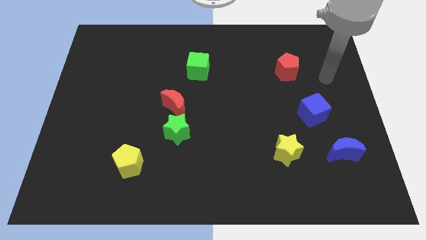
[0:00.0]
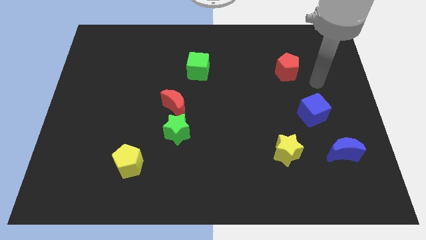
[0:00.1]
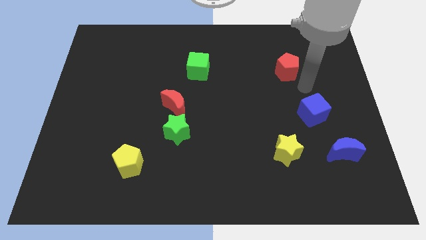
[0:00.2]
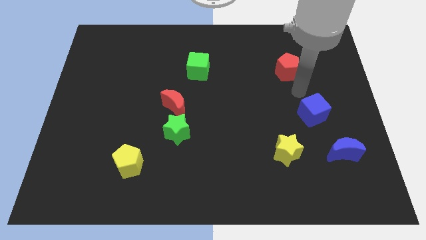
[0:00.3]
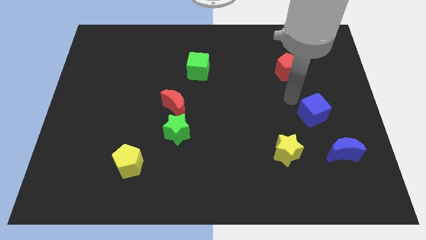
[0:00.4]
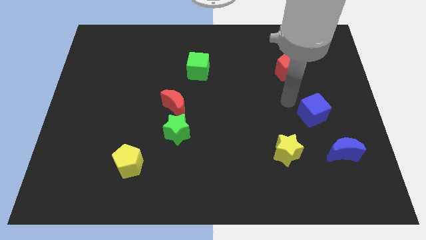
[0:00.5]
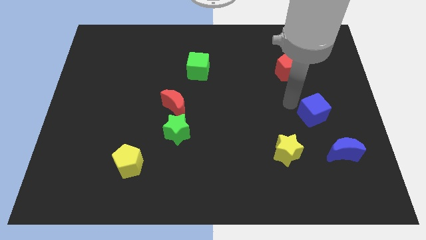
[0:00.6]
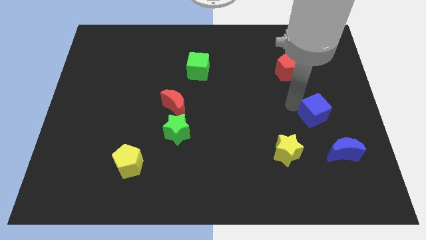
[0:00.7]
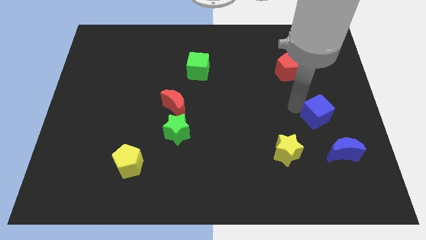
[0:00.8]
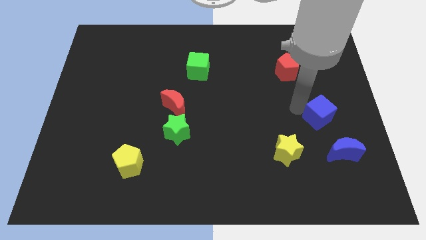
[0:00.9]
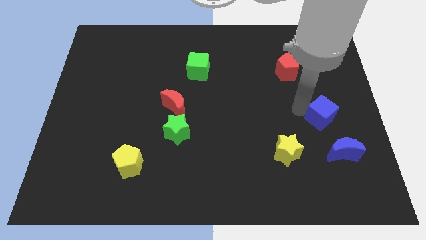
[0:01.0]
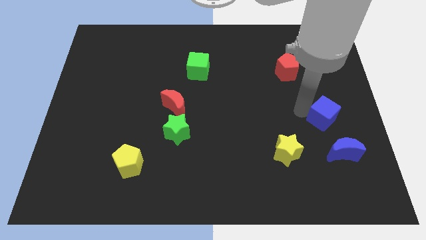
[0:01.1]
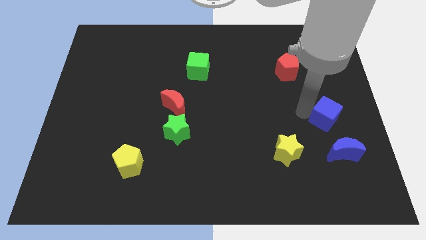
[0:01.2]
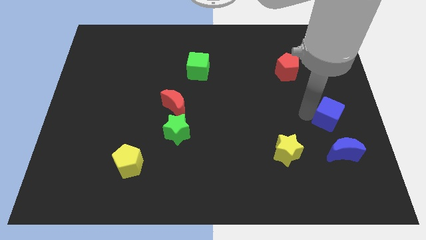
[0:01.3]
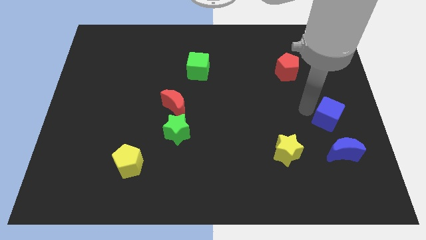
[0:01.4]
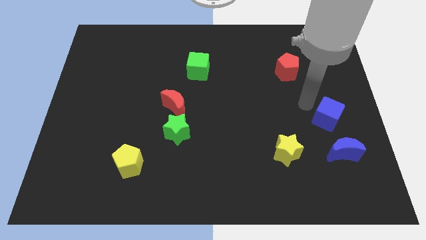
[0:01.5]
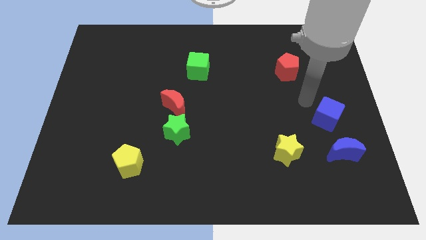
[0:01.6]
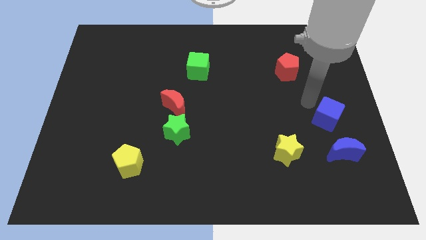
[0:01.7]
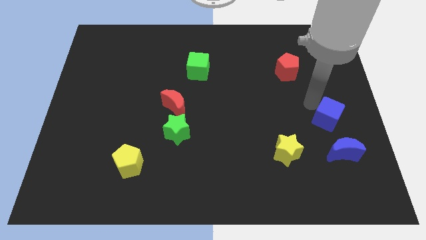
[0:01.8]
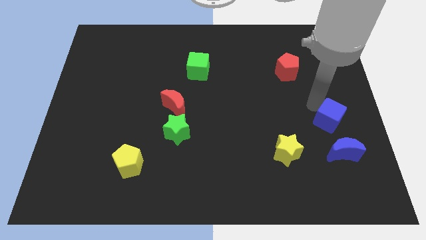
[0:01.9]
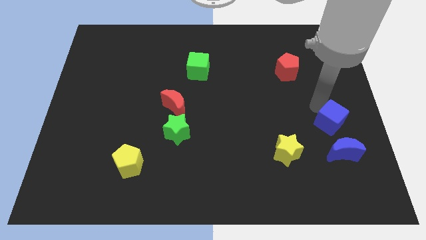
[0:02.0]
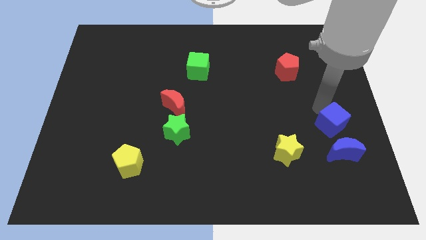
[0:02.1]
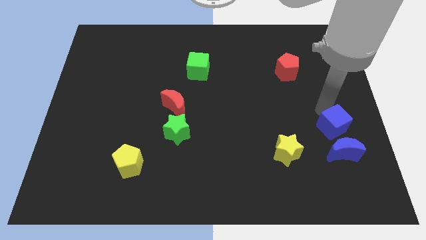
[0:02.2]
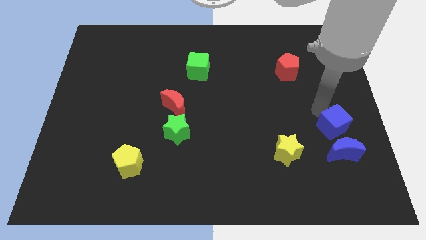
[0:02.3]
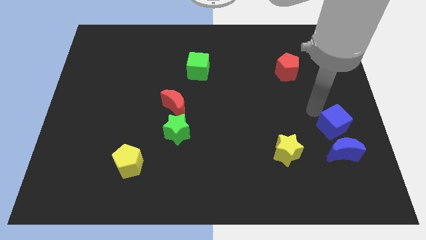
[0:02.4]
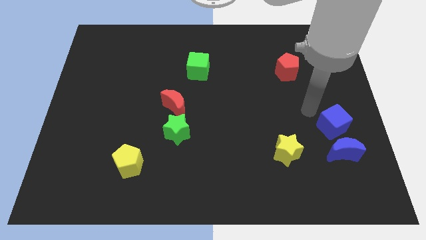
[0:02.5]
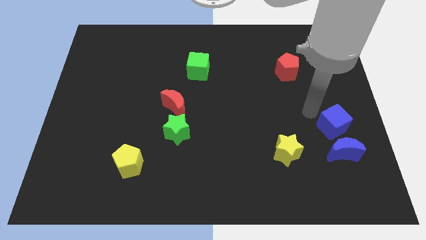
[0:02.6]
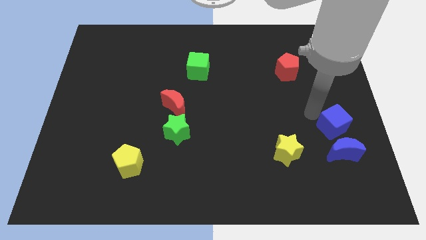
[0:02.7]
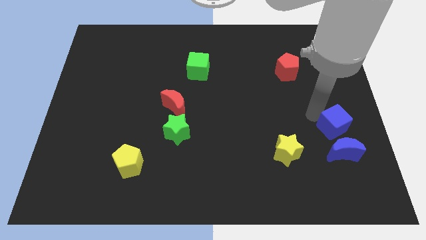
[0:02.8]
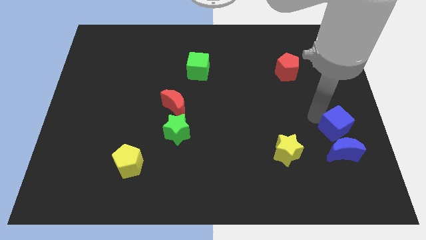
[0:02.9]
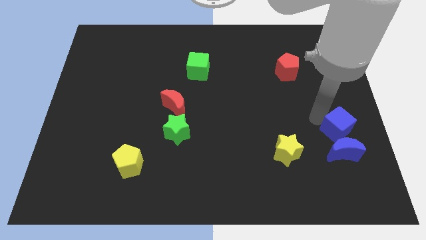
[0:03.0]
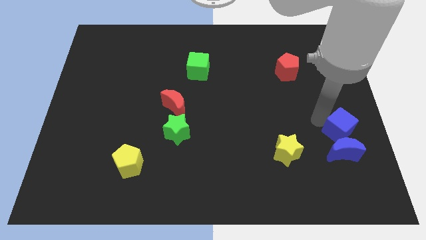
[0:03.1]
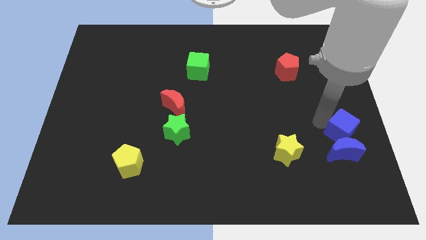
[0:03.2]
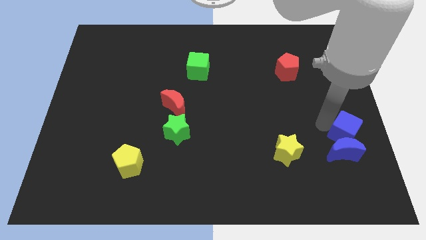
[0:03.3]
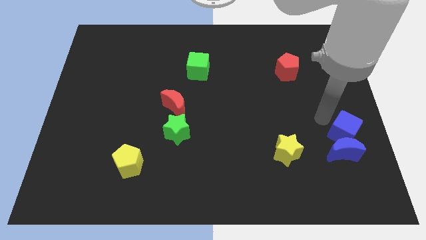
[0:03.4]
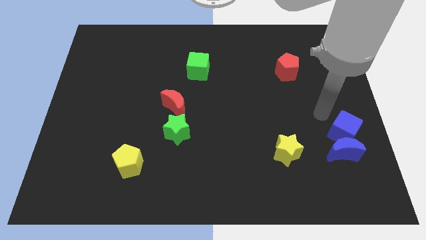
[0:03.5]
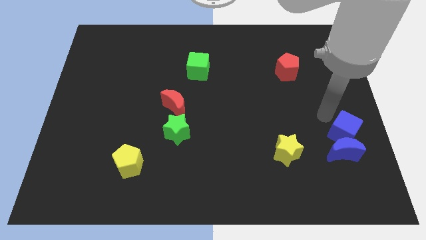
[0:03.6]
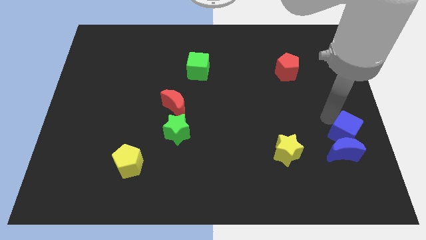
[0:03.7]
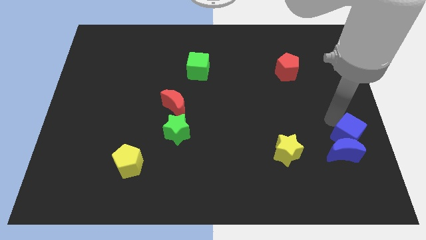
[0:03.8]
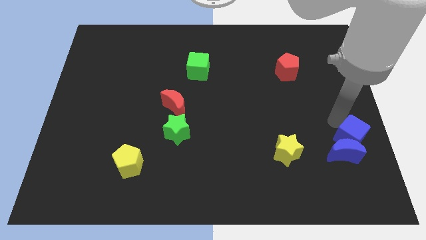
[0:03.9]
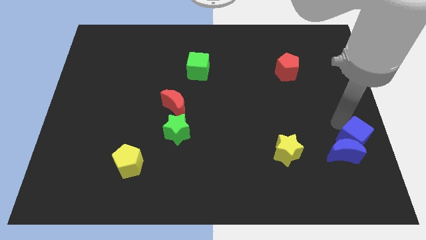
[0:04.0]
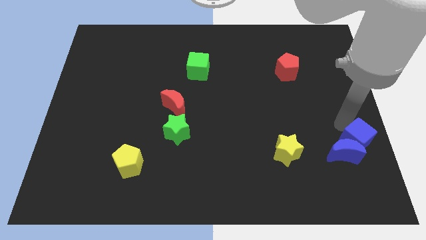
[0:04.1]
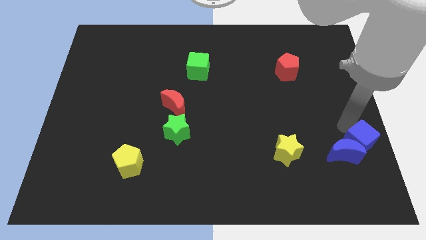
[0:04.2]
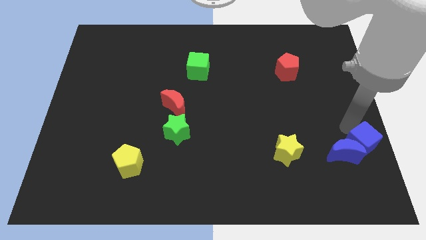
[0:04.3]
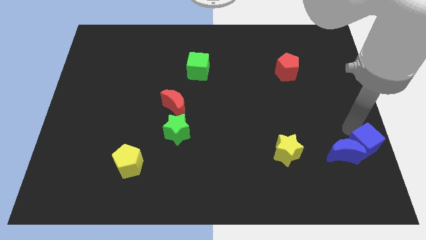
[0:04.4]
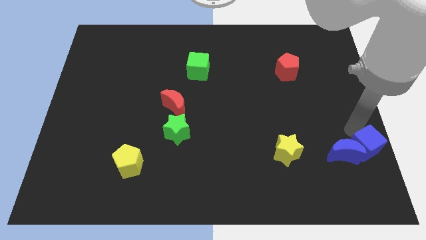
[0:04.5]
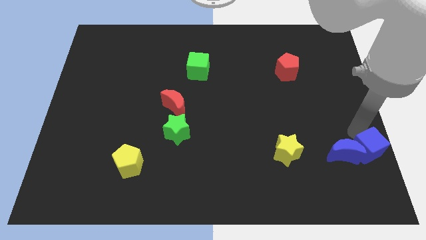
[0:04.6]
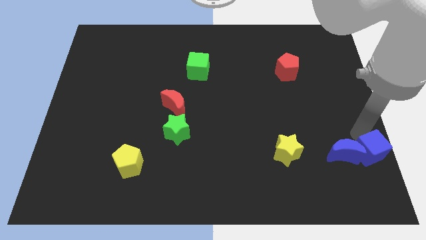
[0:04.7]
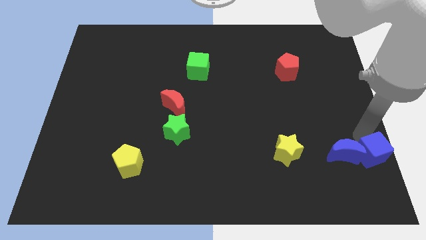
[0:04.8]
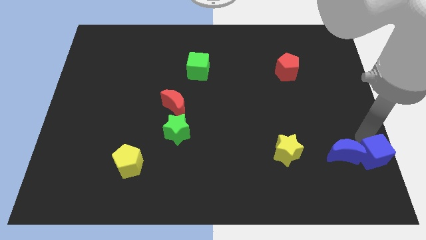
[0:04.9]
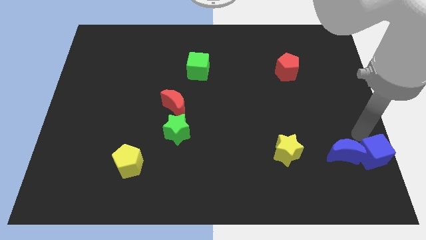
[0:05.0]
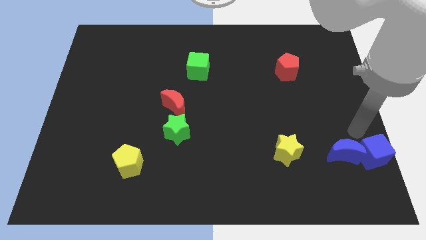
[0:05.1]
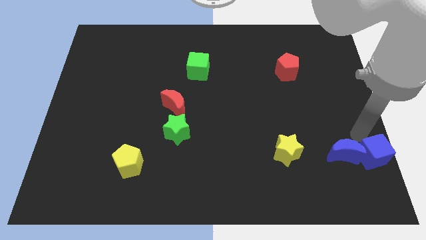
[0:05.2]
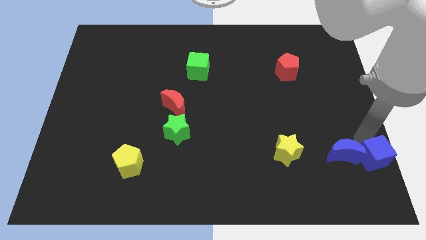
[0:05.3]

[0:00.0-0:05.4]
push the blue cube to the bottom right

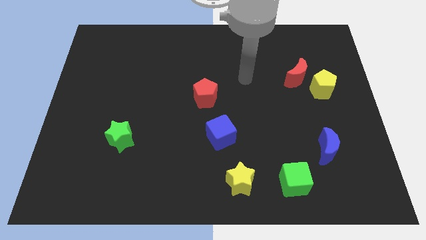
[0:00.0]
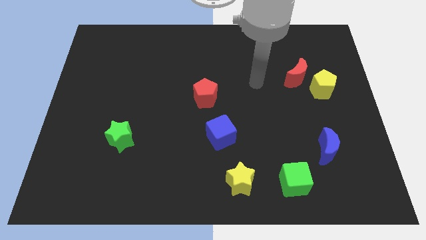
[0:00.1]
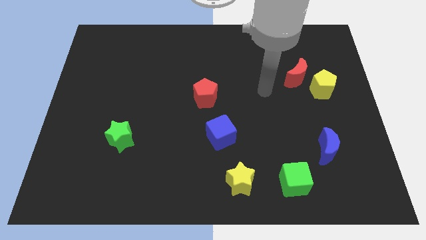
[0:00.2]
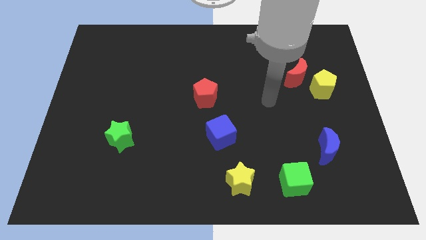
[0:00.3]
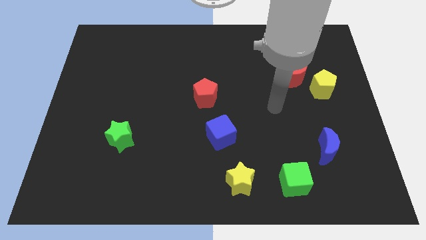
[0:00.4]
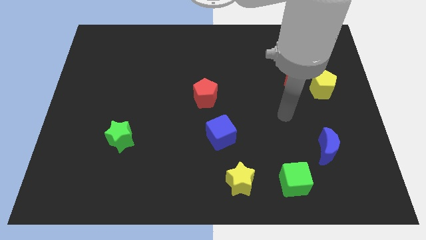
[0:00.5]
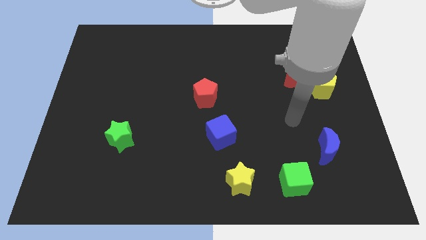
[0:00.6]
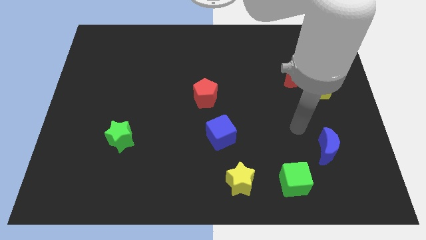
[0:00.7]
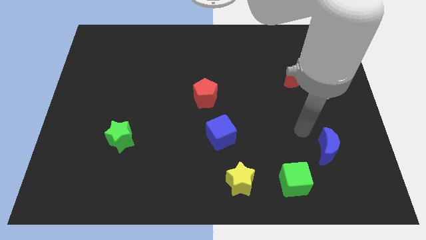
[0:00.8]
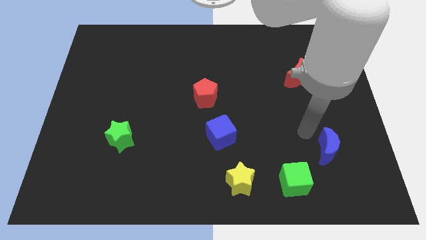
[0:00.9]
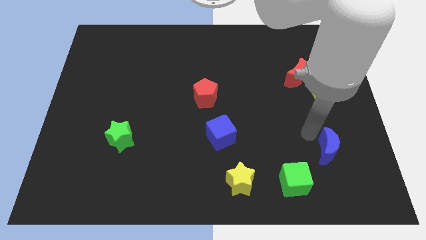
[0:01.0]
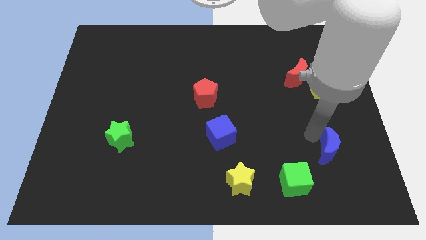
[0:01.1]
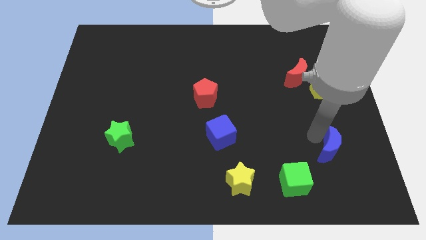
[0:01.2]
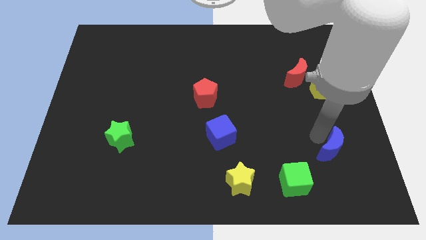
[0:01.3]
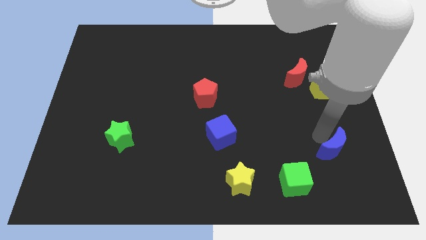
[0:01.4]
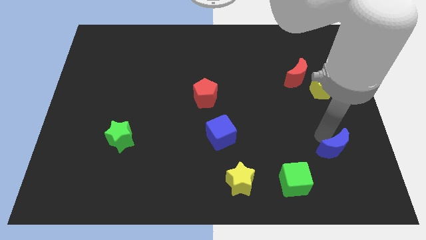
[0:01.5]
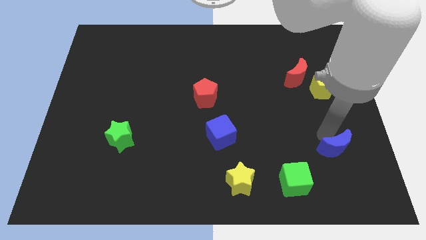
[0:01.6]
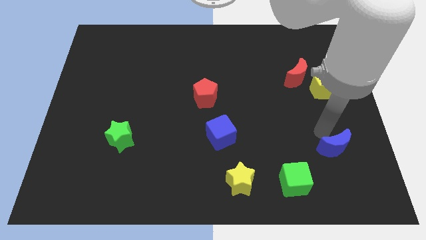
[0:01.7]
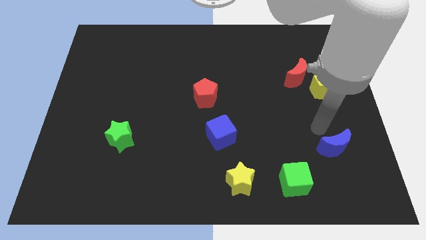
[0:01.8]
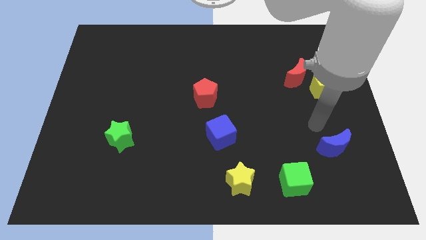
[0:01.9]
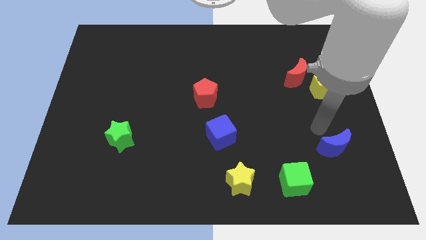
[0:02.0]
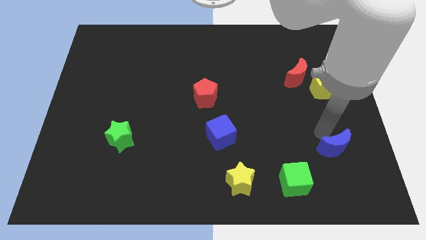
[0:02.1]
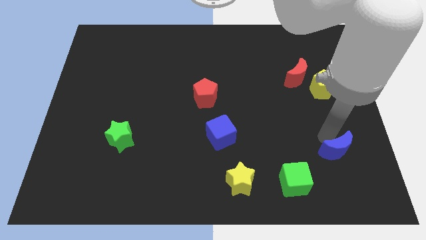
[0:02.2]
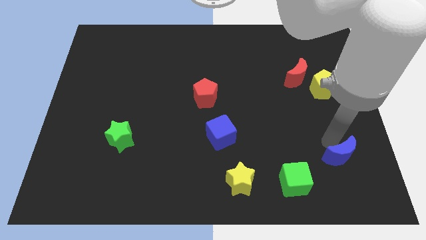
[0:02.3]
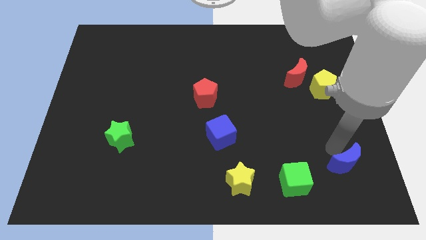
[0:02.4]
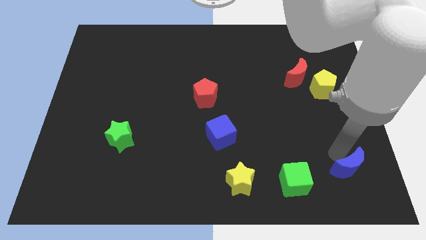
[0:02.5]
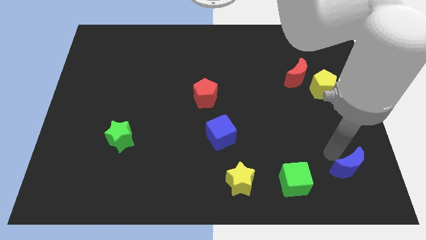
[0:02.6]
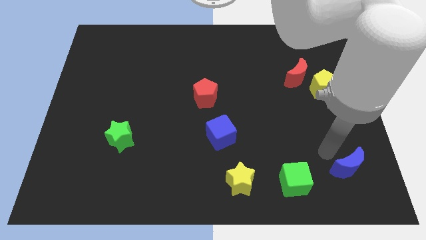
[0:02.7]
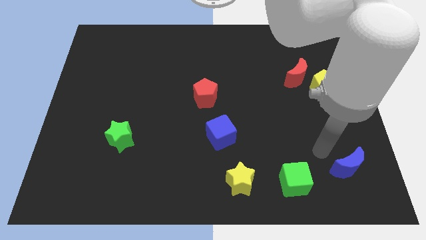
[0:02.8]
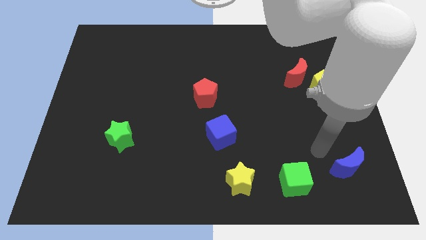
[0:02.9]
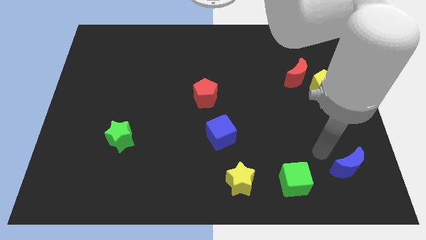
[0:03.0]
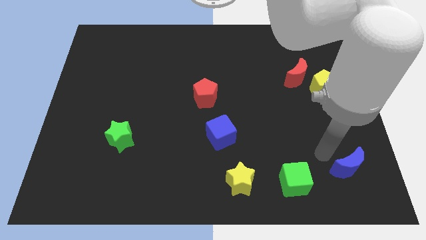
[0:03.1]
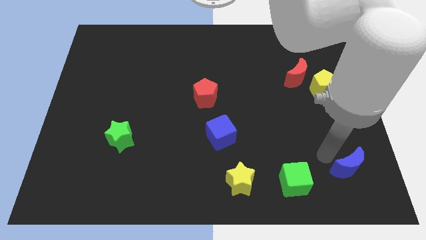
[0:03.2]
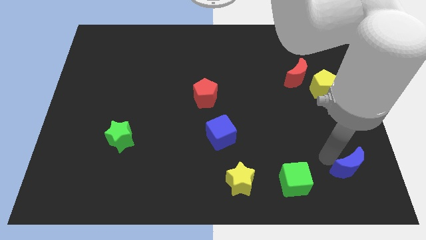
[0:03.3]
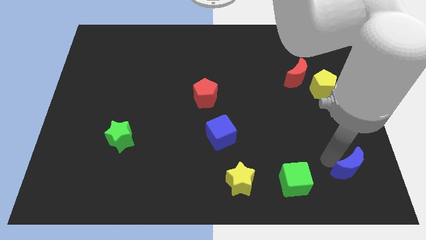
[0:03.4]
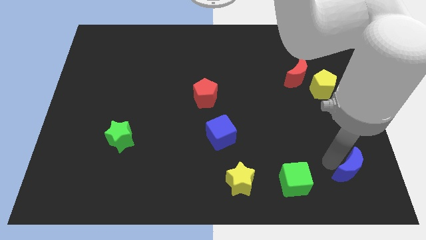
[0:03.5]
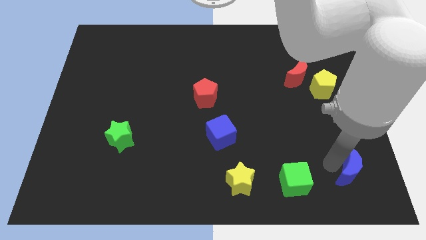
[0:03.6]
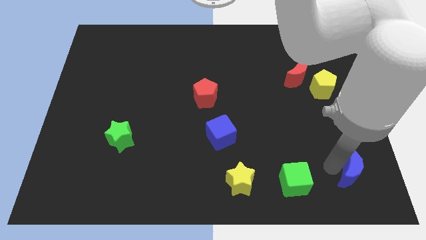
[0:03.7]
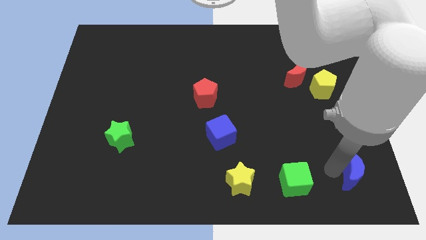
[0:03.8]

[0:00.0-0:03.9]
put the blue moon to the bottom right
